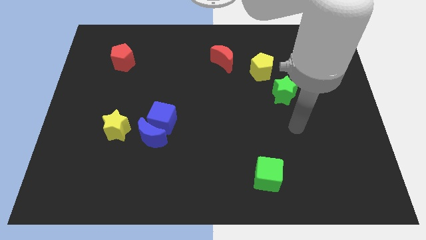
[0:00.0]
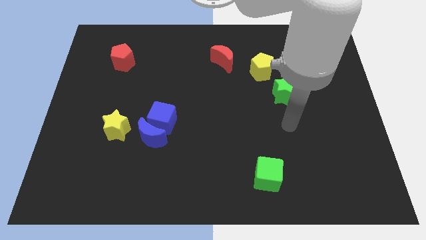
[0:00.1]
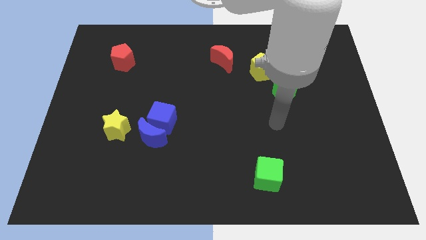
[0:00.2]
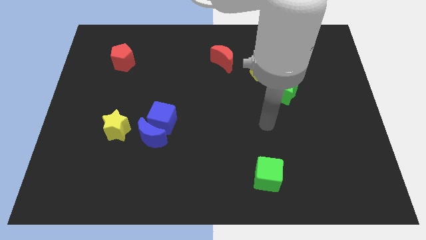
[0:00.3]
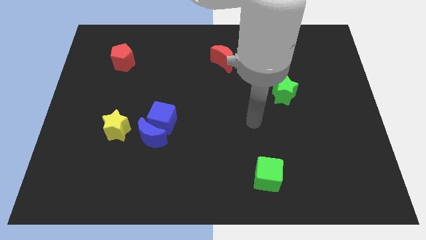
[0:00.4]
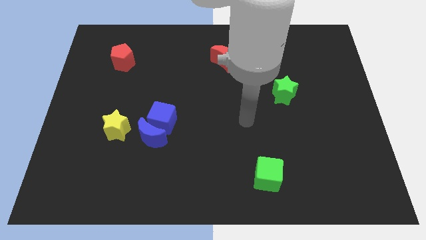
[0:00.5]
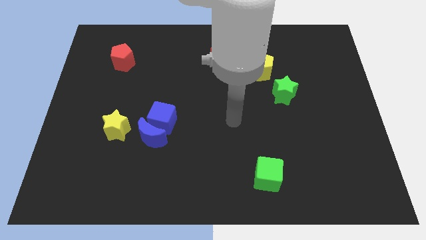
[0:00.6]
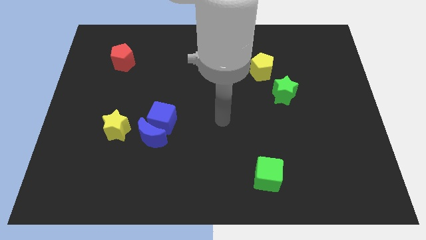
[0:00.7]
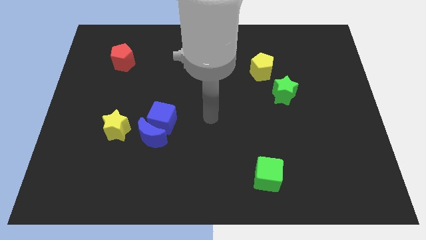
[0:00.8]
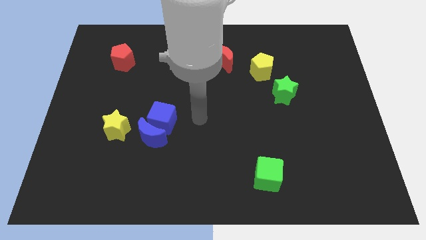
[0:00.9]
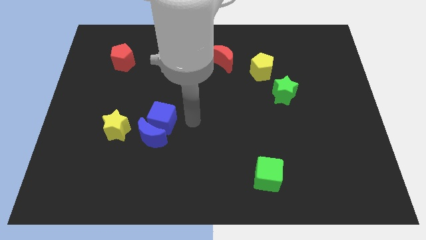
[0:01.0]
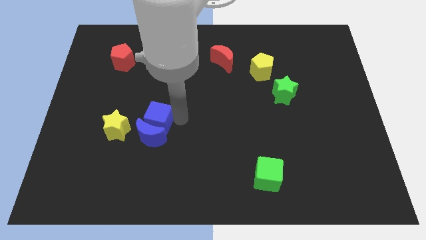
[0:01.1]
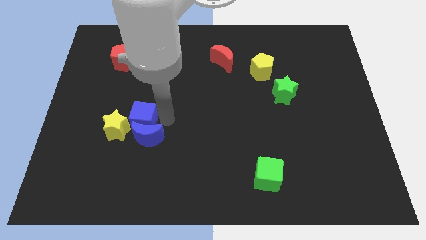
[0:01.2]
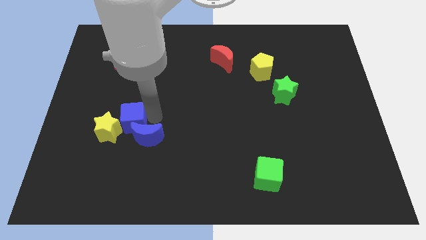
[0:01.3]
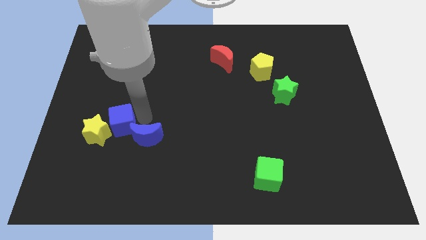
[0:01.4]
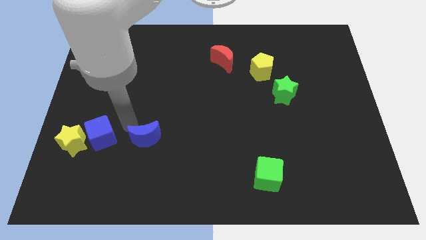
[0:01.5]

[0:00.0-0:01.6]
move the blue moon away from the blue cube and yellow star

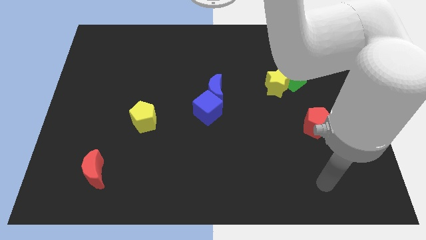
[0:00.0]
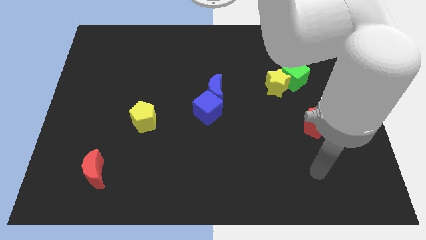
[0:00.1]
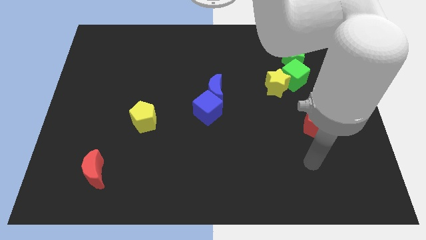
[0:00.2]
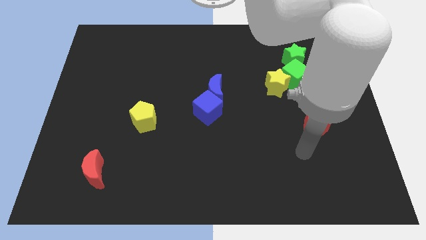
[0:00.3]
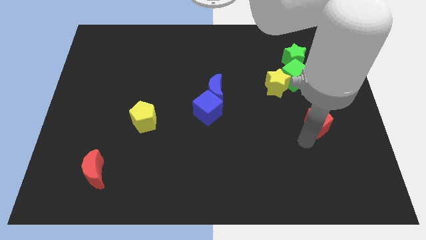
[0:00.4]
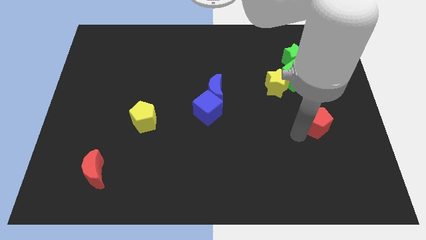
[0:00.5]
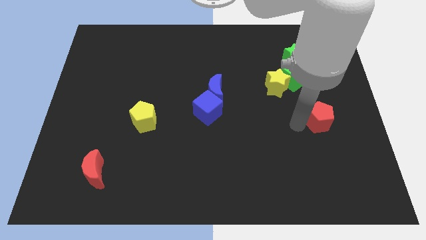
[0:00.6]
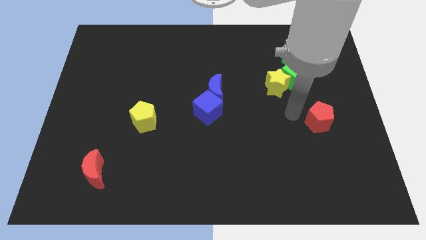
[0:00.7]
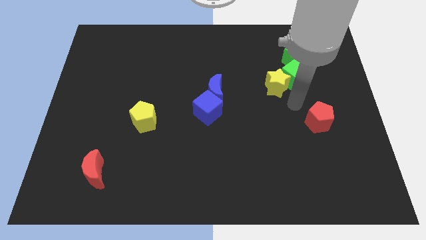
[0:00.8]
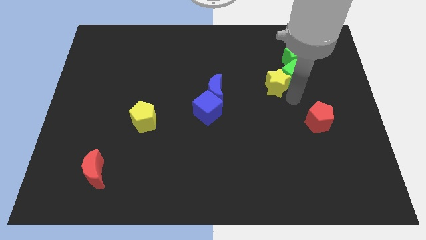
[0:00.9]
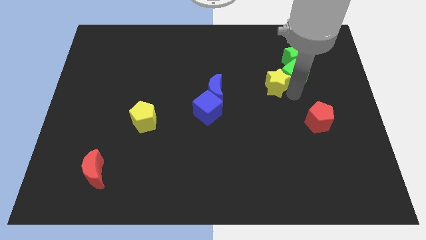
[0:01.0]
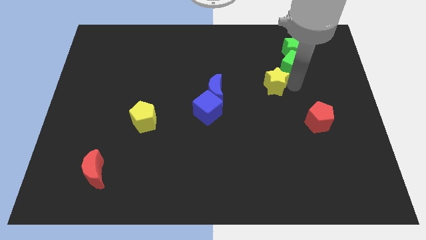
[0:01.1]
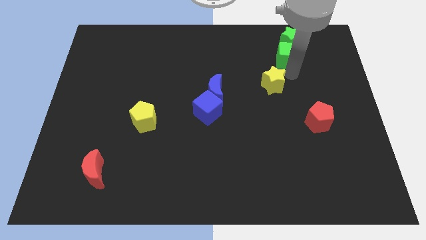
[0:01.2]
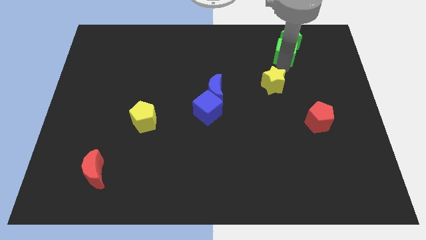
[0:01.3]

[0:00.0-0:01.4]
separate the yellow star from the green cube

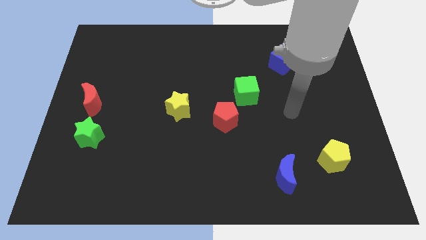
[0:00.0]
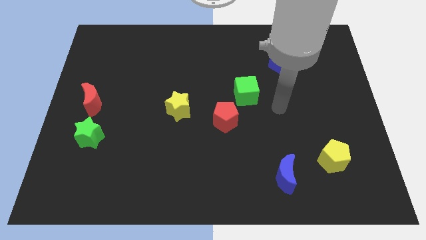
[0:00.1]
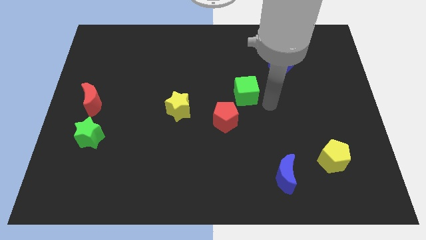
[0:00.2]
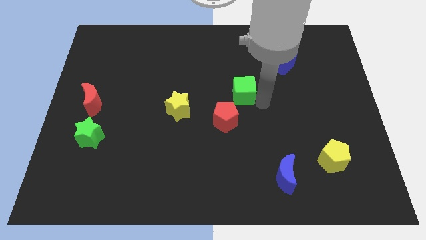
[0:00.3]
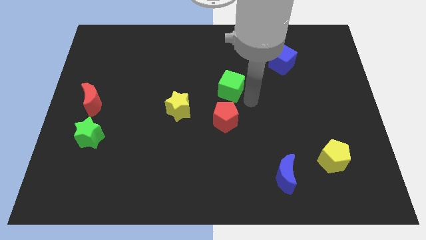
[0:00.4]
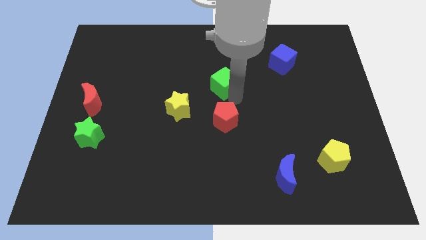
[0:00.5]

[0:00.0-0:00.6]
move the red pentagon away from the green cube

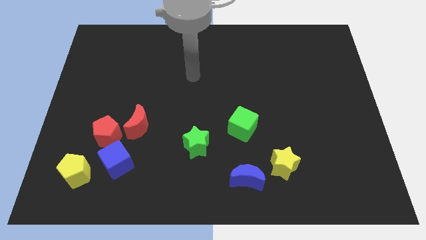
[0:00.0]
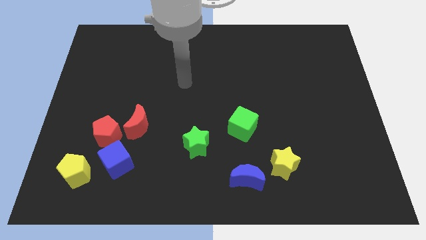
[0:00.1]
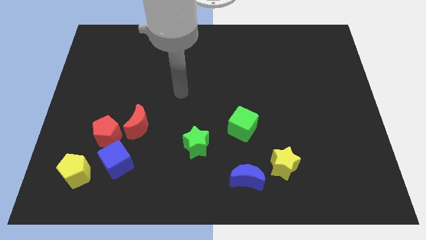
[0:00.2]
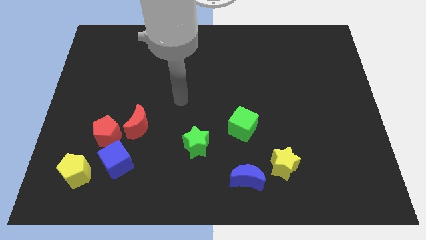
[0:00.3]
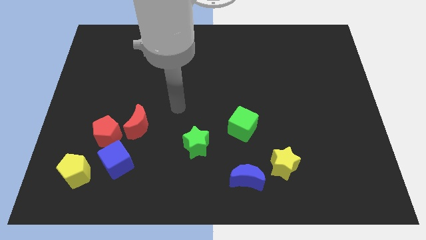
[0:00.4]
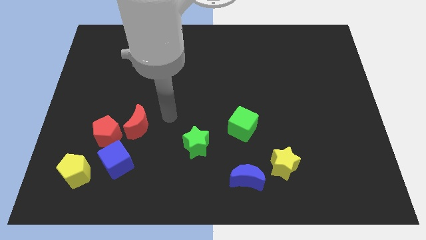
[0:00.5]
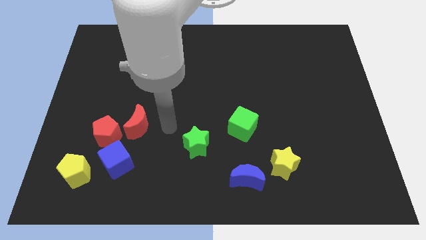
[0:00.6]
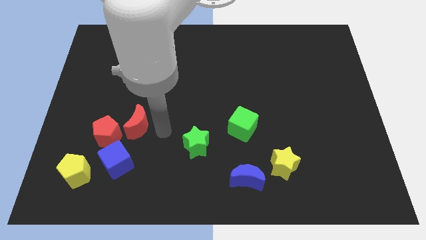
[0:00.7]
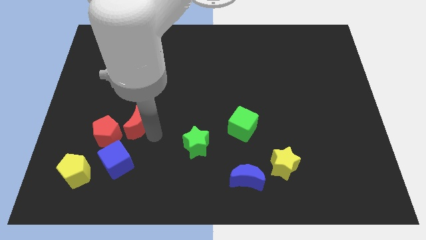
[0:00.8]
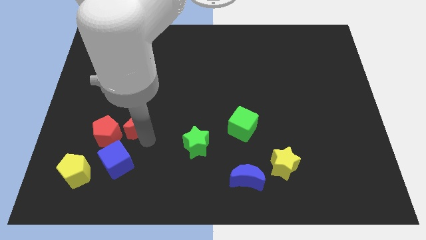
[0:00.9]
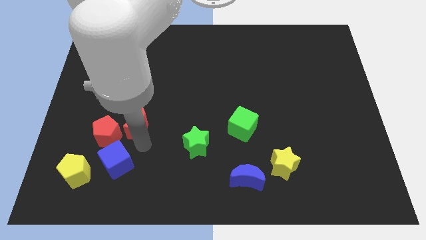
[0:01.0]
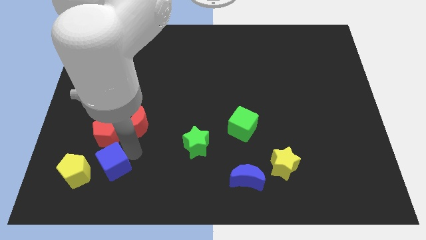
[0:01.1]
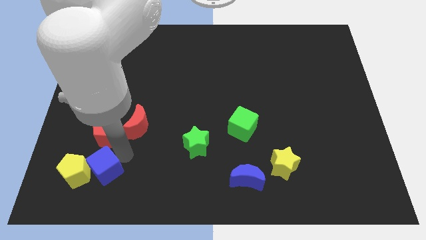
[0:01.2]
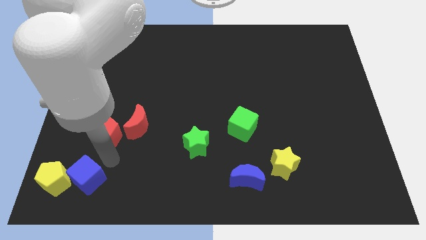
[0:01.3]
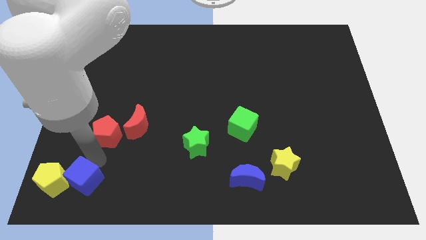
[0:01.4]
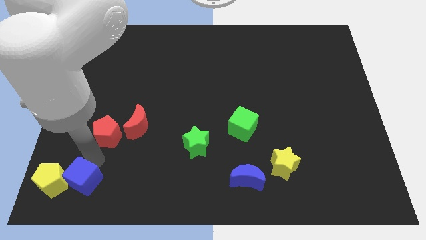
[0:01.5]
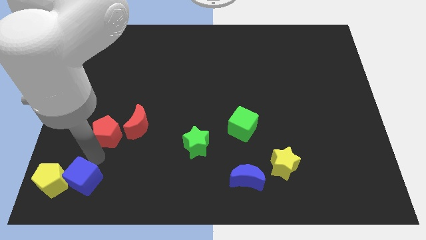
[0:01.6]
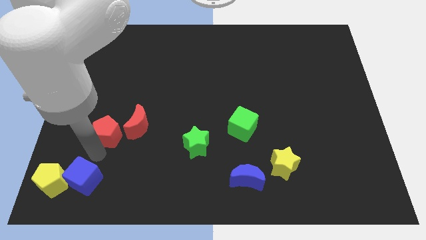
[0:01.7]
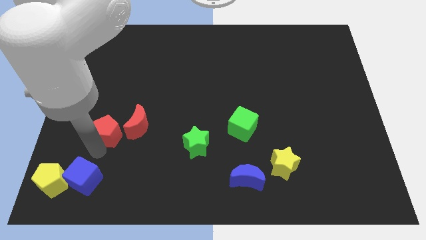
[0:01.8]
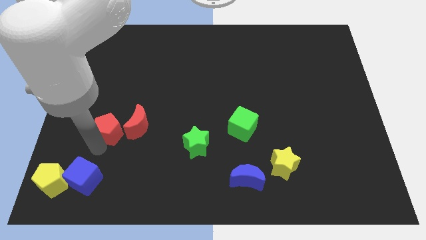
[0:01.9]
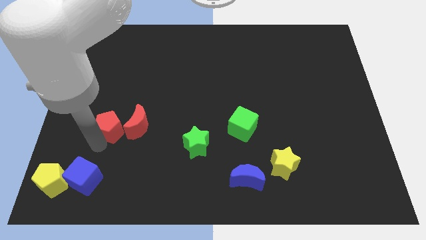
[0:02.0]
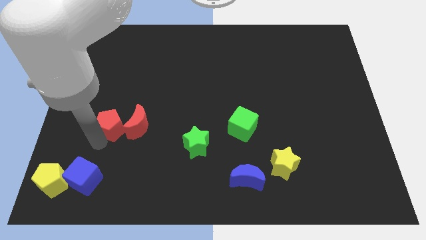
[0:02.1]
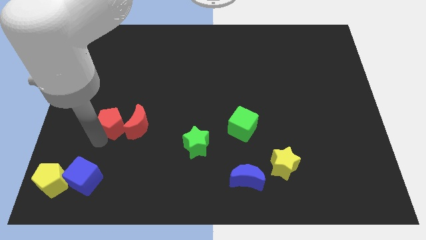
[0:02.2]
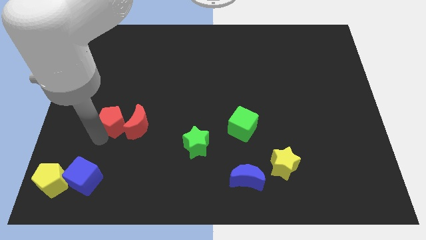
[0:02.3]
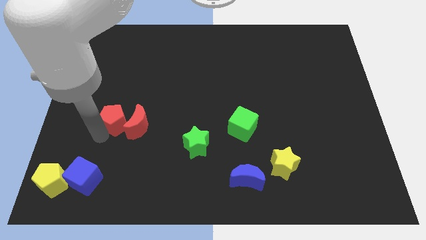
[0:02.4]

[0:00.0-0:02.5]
move the red pentagon away from the red moon, blue cube, and yellow pentagon

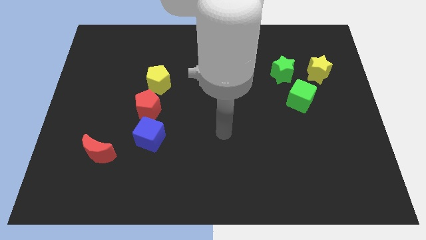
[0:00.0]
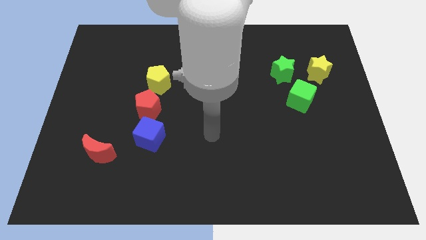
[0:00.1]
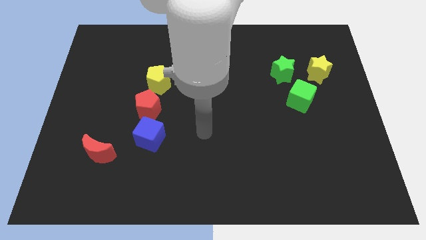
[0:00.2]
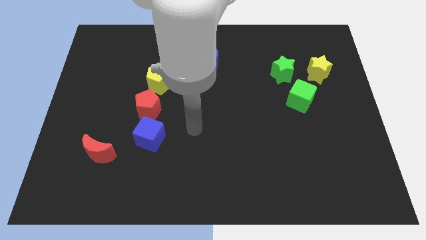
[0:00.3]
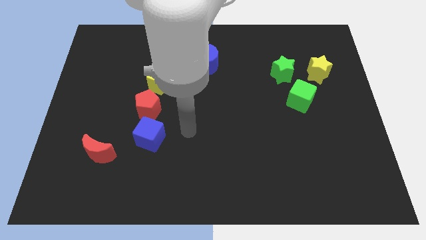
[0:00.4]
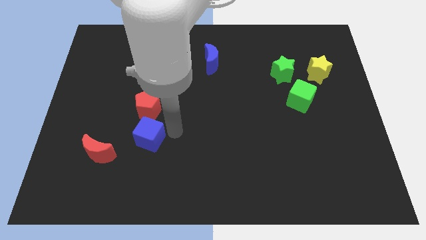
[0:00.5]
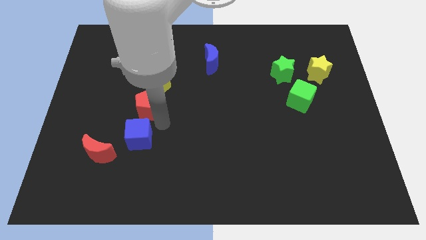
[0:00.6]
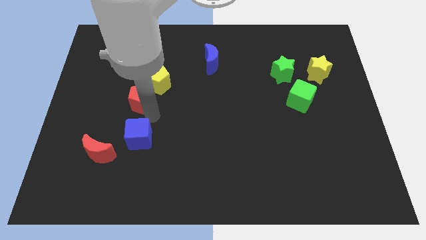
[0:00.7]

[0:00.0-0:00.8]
move the blue cube away from the red pentagon

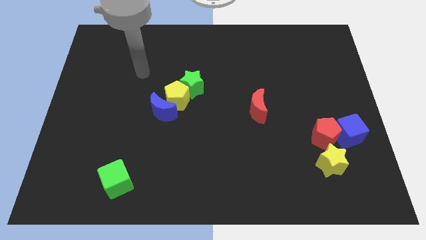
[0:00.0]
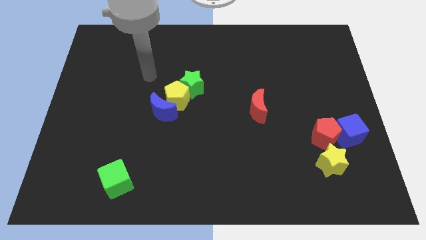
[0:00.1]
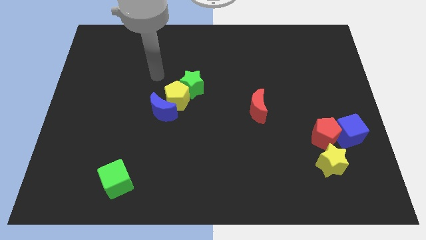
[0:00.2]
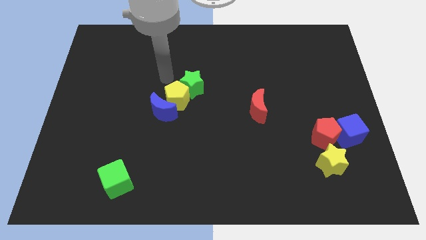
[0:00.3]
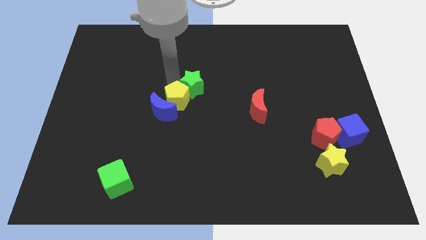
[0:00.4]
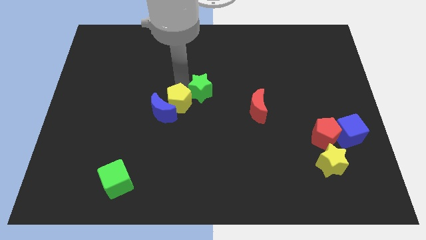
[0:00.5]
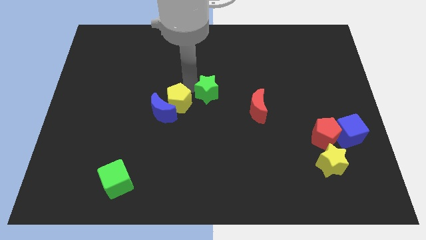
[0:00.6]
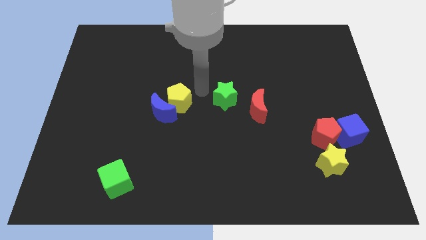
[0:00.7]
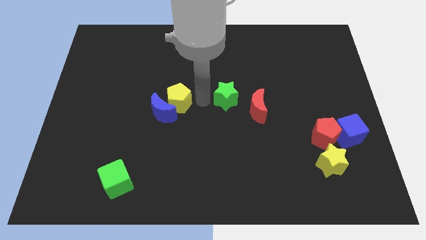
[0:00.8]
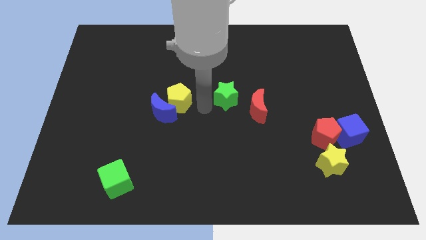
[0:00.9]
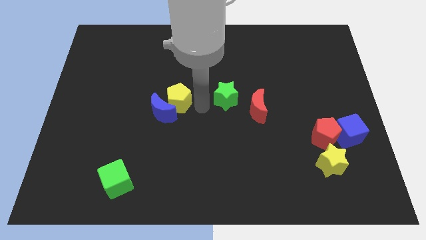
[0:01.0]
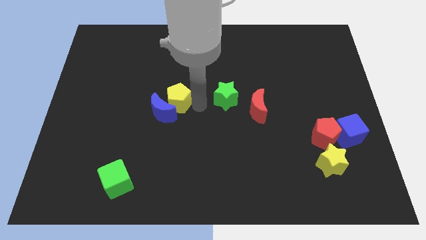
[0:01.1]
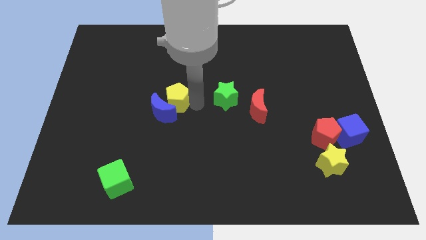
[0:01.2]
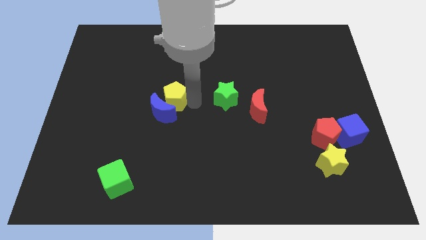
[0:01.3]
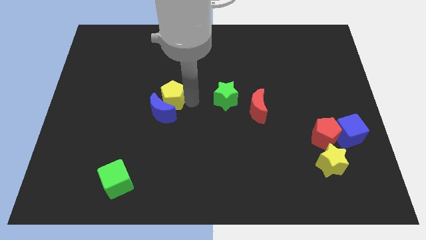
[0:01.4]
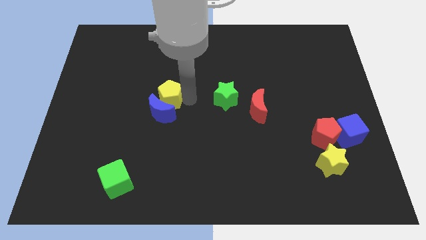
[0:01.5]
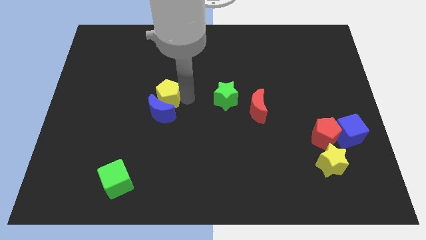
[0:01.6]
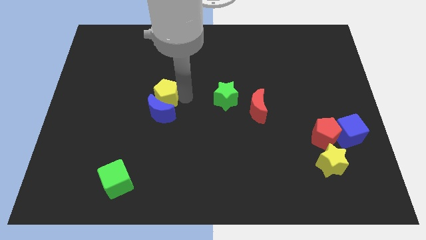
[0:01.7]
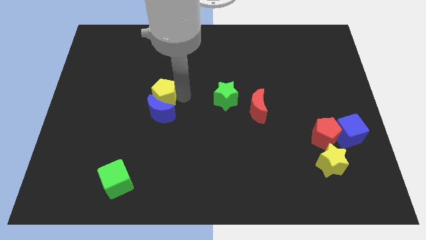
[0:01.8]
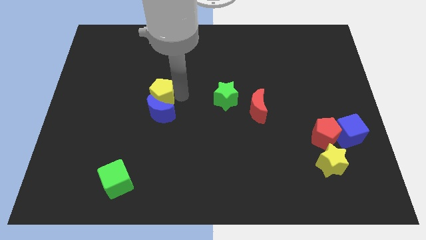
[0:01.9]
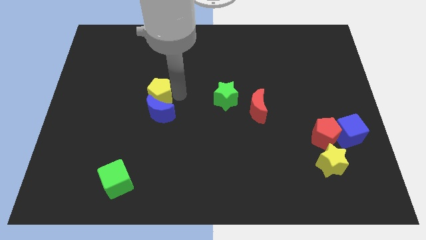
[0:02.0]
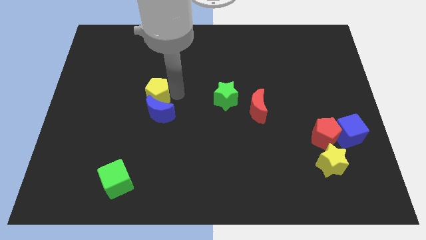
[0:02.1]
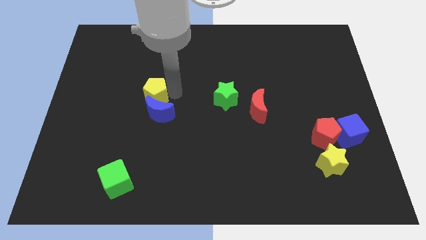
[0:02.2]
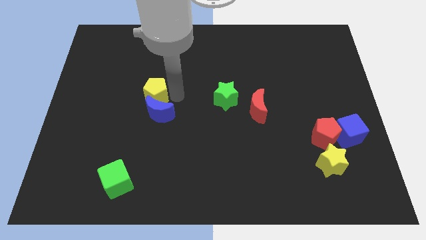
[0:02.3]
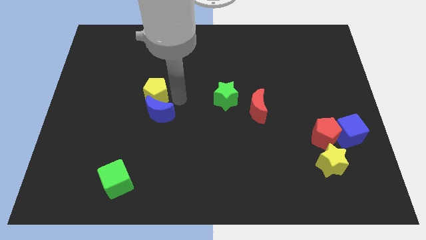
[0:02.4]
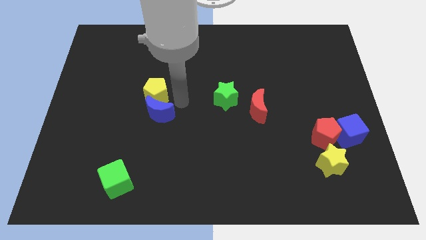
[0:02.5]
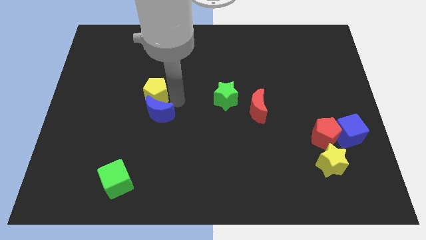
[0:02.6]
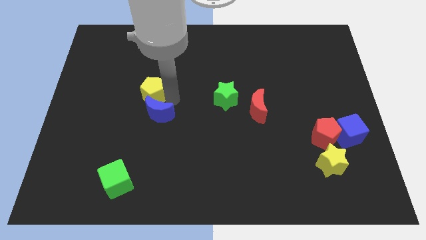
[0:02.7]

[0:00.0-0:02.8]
pull the yellow pentagon apart from the blue moon and green star
